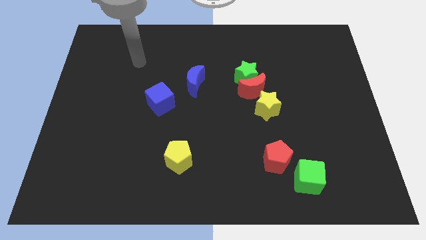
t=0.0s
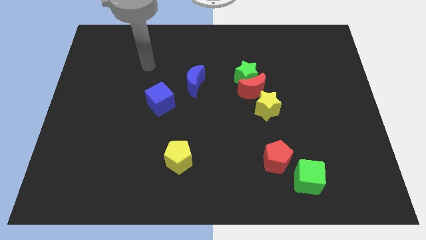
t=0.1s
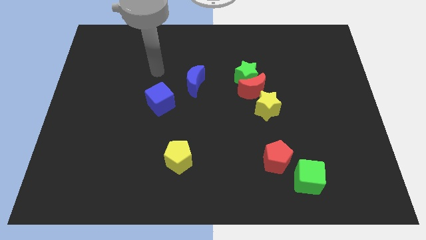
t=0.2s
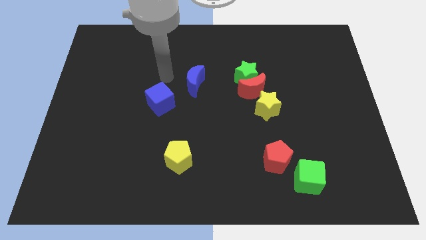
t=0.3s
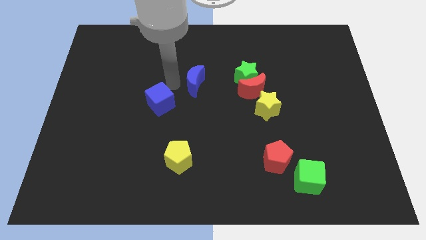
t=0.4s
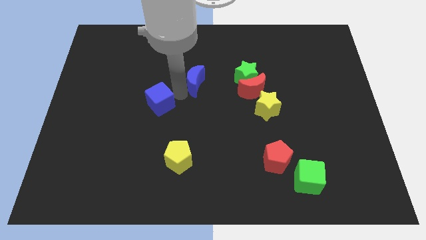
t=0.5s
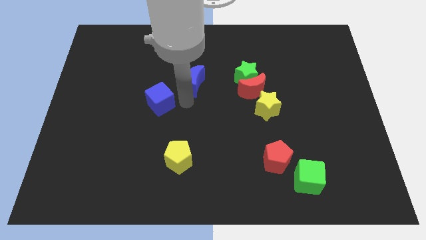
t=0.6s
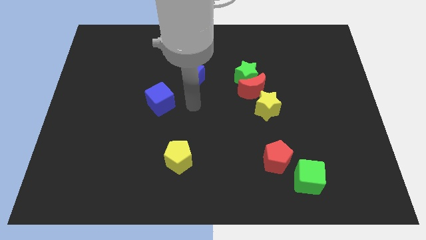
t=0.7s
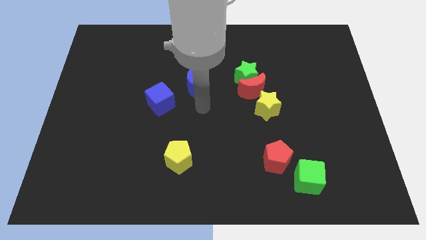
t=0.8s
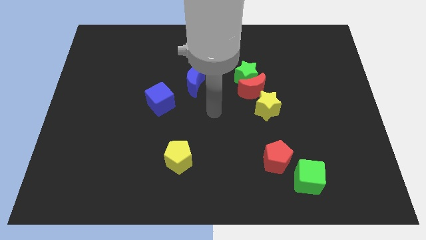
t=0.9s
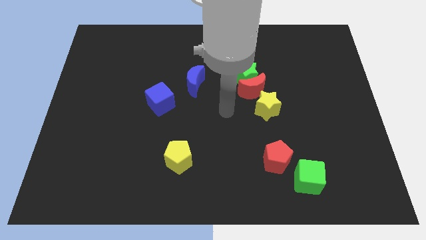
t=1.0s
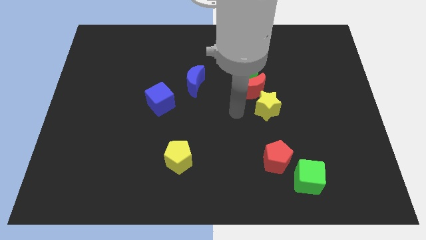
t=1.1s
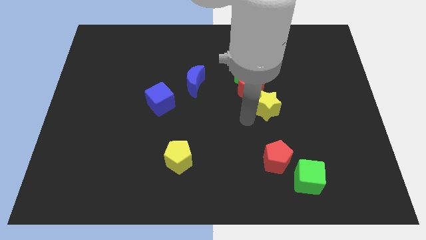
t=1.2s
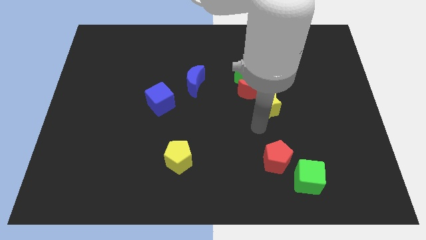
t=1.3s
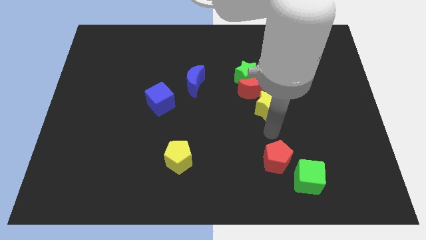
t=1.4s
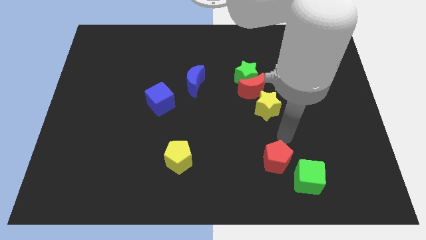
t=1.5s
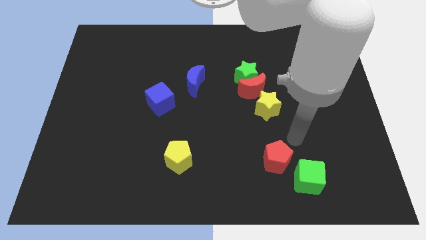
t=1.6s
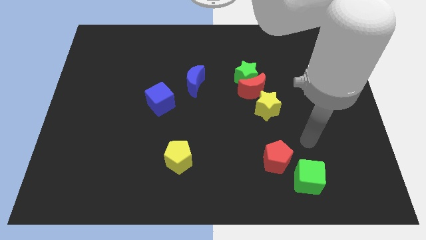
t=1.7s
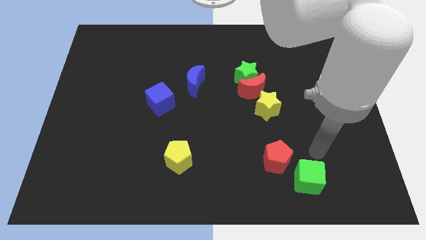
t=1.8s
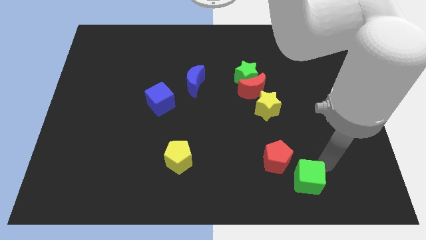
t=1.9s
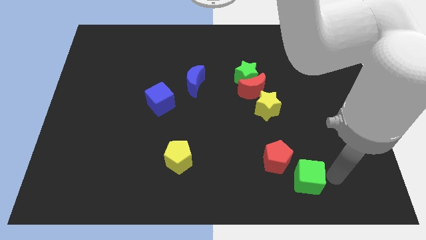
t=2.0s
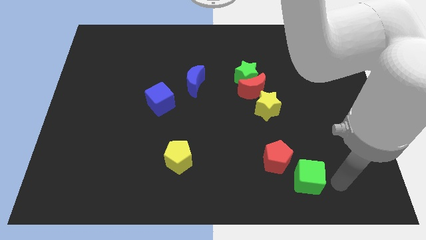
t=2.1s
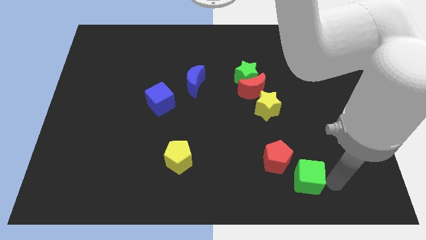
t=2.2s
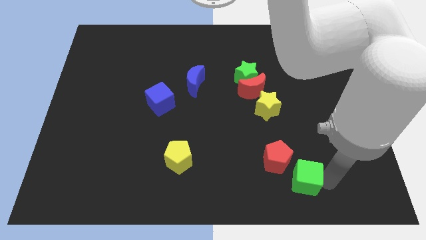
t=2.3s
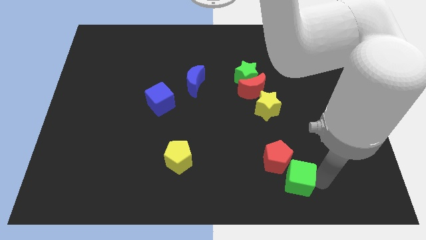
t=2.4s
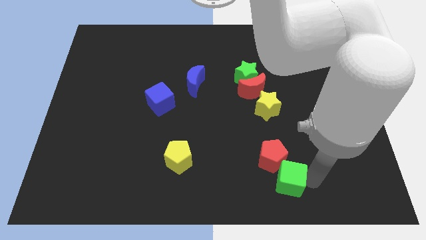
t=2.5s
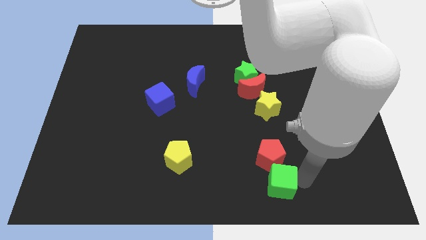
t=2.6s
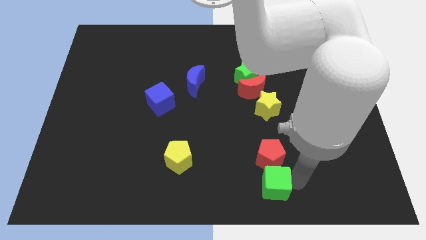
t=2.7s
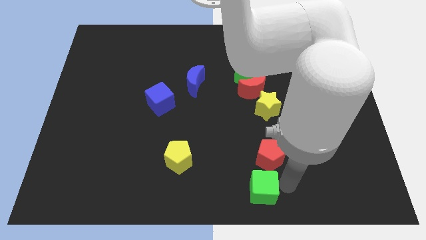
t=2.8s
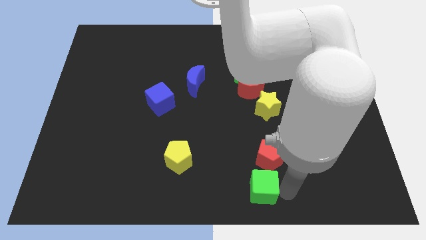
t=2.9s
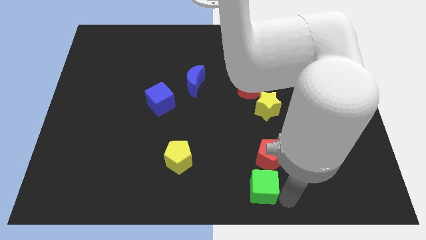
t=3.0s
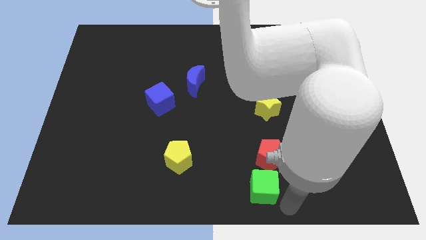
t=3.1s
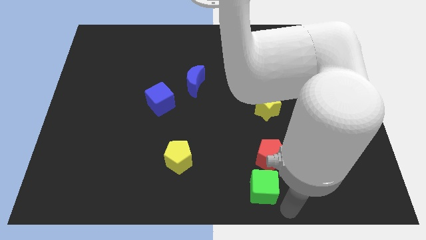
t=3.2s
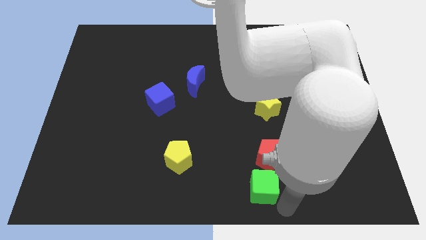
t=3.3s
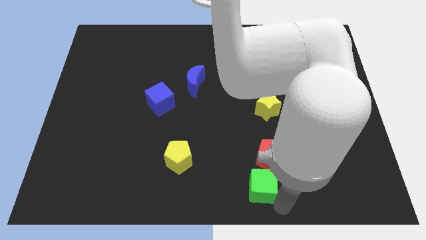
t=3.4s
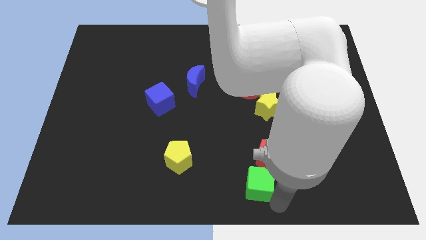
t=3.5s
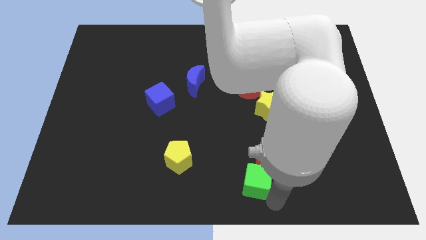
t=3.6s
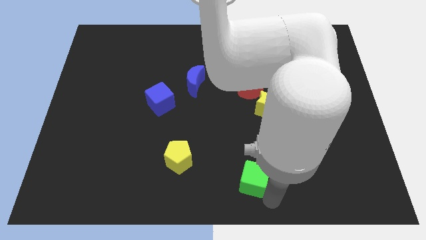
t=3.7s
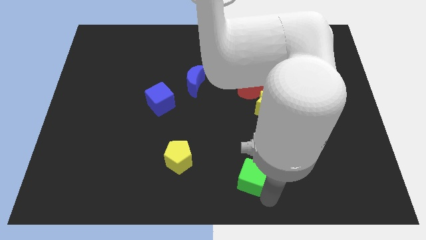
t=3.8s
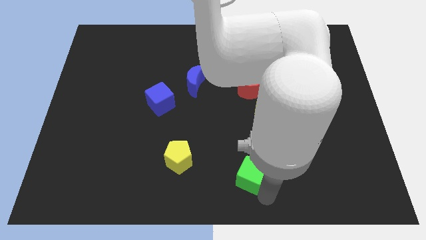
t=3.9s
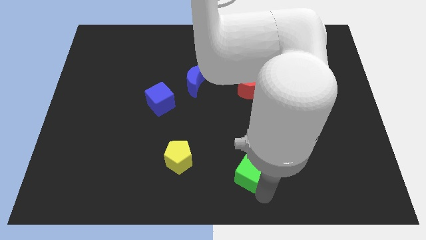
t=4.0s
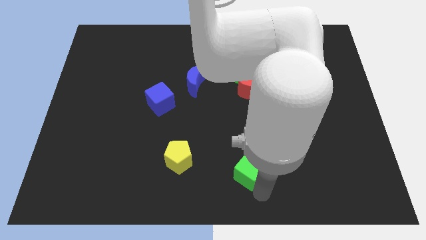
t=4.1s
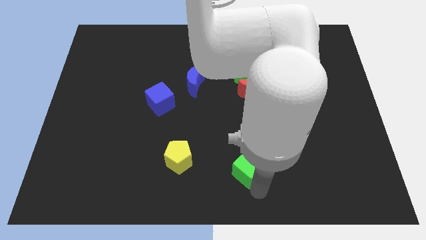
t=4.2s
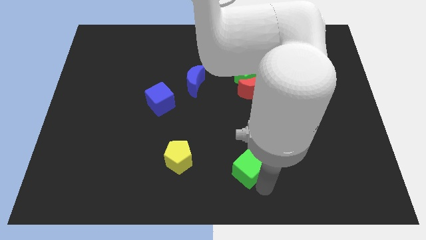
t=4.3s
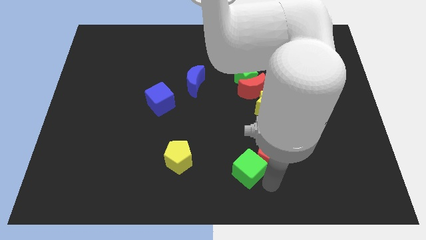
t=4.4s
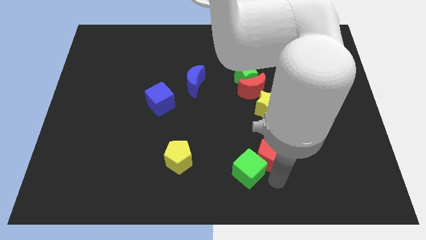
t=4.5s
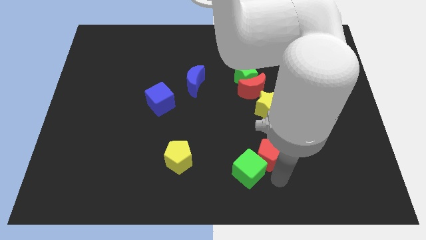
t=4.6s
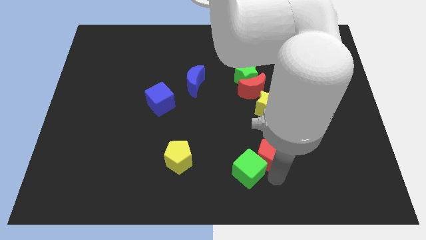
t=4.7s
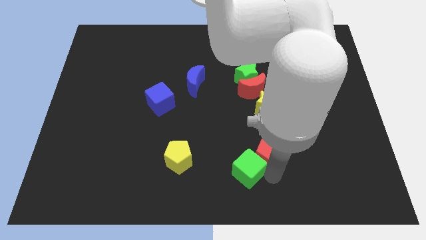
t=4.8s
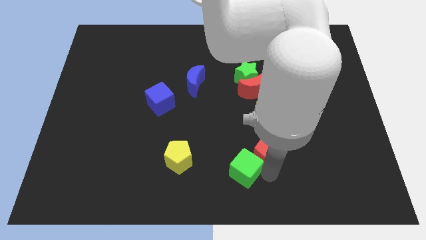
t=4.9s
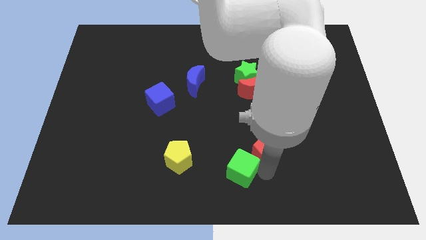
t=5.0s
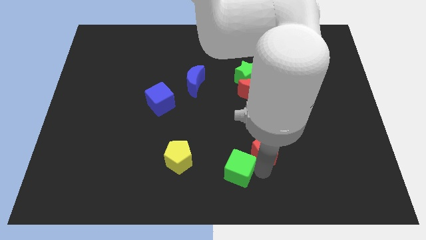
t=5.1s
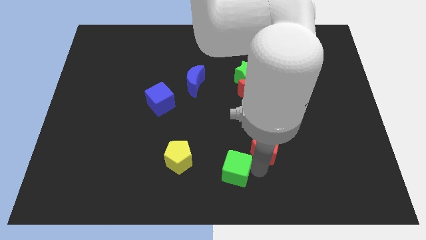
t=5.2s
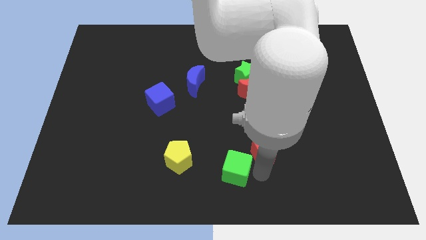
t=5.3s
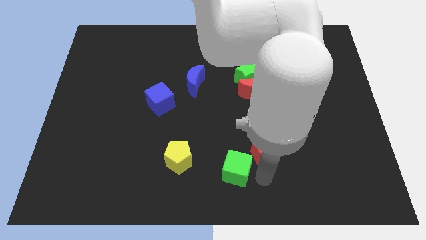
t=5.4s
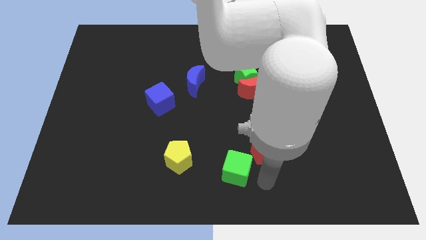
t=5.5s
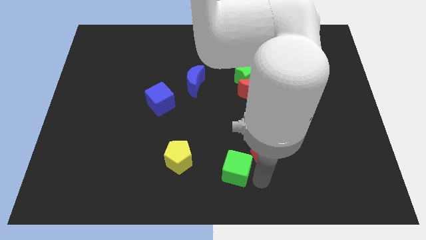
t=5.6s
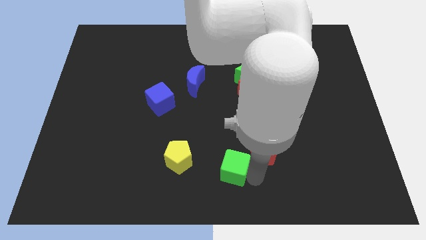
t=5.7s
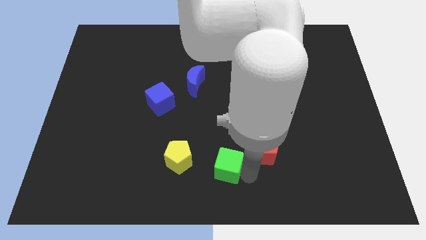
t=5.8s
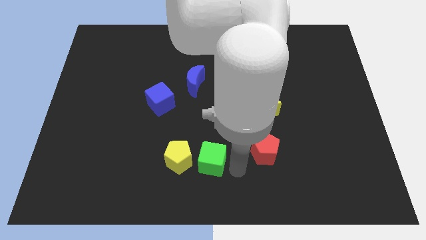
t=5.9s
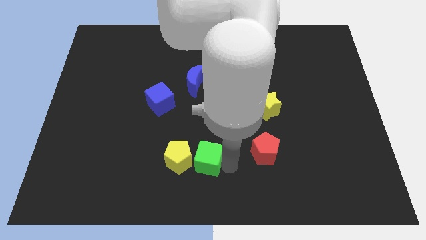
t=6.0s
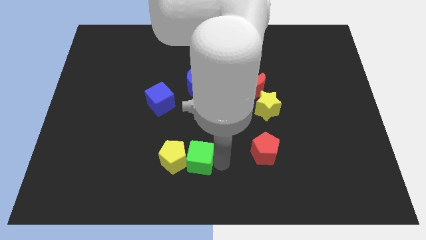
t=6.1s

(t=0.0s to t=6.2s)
push the green cube next to the yellow pentagon

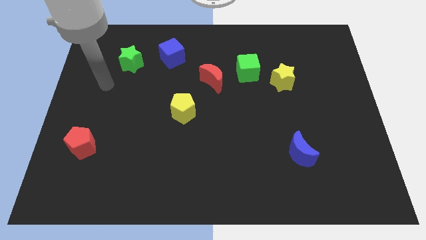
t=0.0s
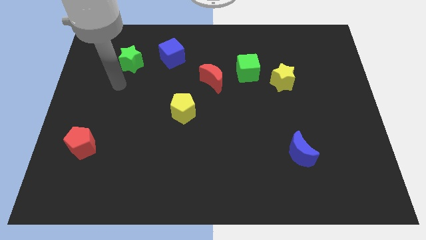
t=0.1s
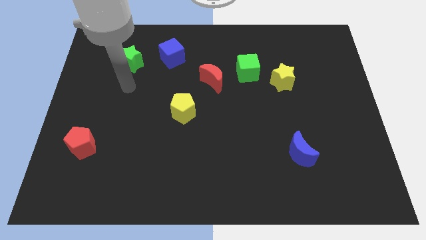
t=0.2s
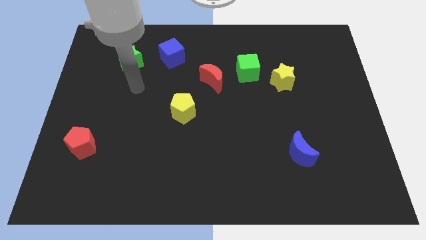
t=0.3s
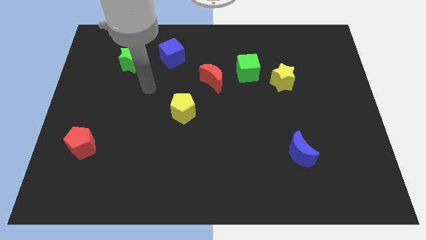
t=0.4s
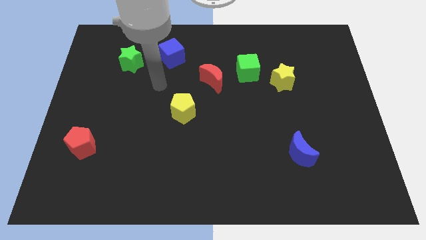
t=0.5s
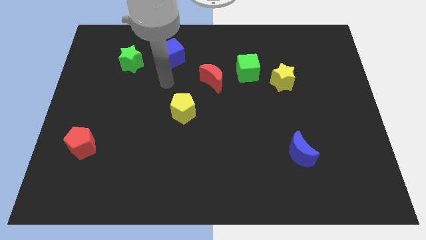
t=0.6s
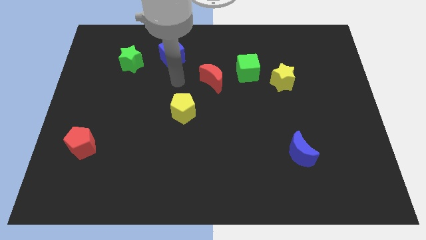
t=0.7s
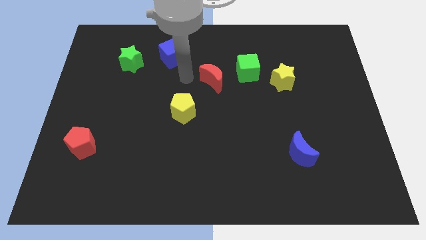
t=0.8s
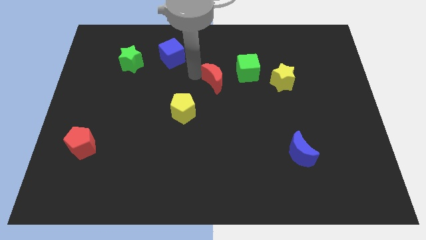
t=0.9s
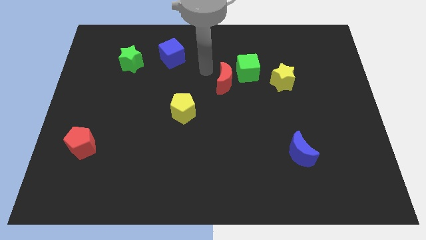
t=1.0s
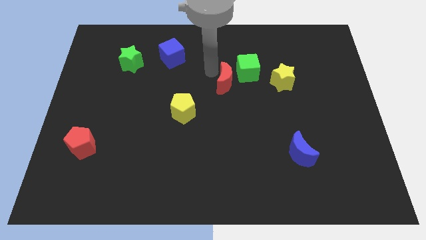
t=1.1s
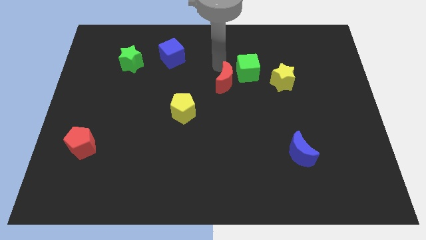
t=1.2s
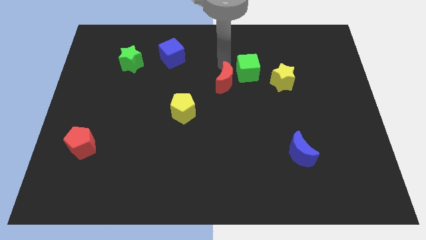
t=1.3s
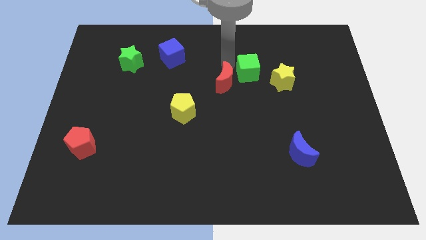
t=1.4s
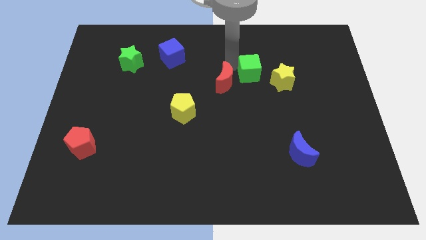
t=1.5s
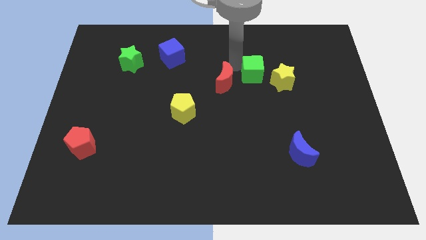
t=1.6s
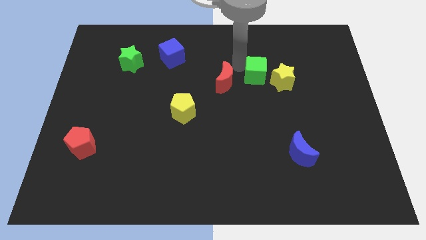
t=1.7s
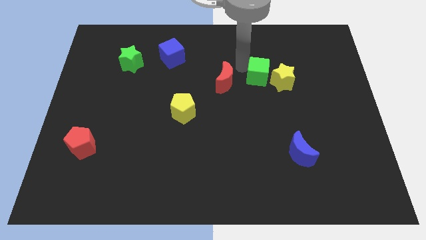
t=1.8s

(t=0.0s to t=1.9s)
move the green cube towards the yellow star
